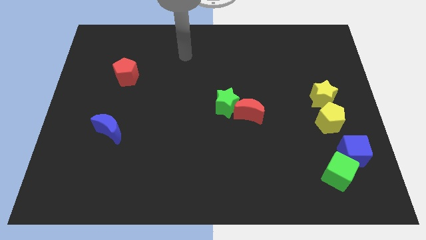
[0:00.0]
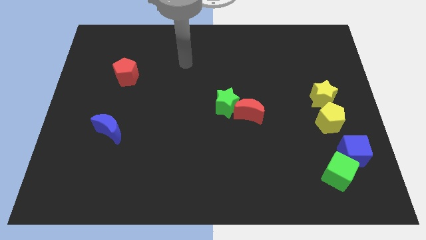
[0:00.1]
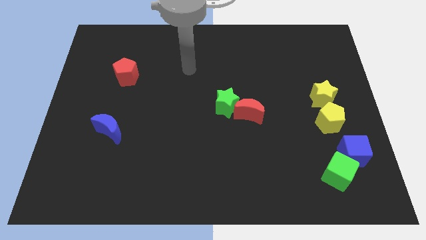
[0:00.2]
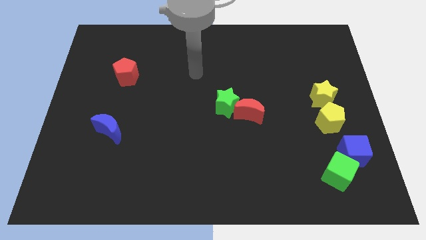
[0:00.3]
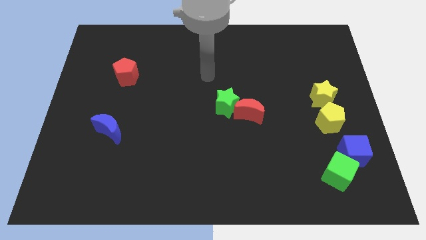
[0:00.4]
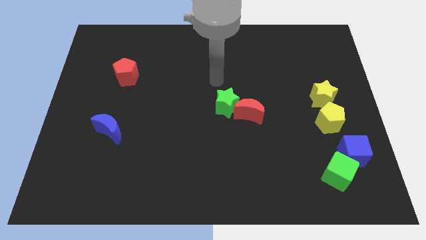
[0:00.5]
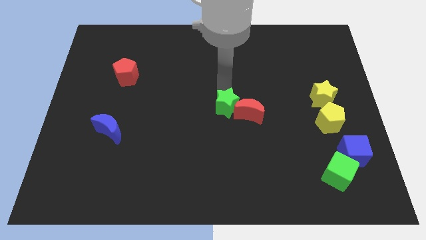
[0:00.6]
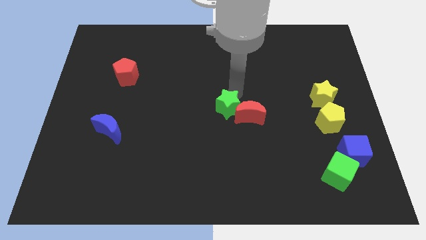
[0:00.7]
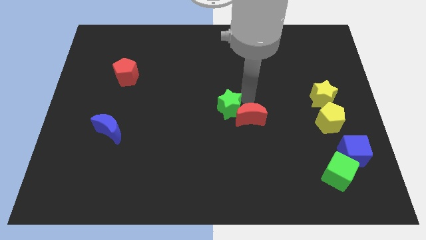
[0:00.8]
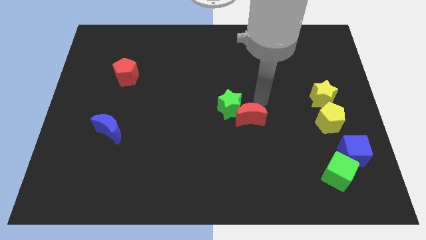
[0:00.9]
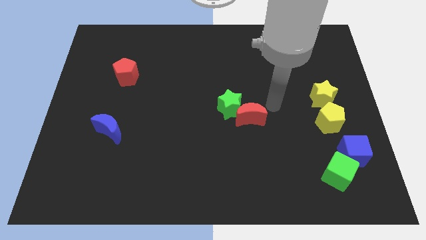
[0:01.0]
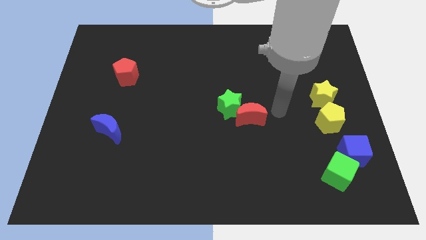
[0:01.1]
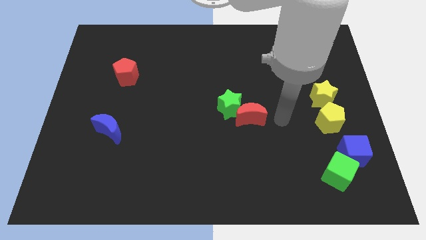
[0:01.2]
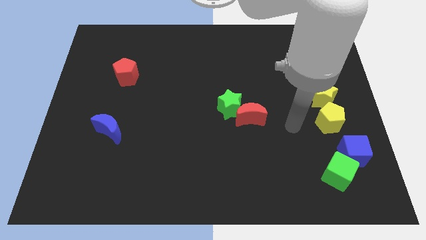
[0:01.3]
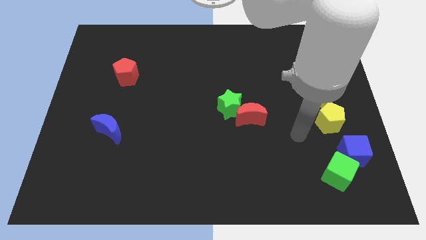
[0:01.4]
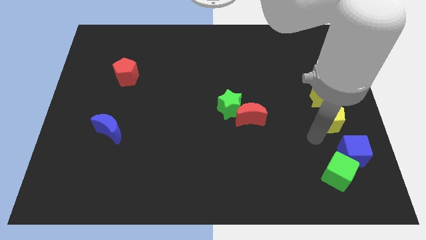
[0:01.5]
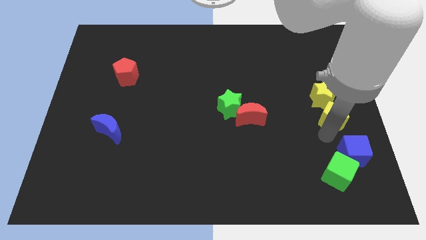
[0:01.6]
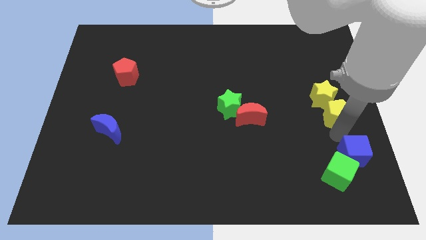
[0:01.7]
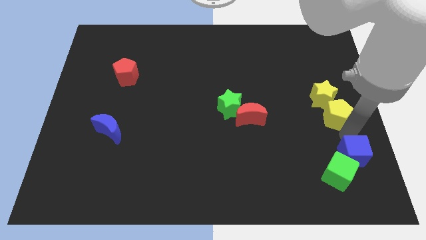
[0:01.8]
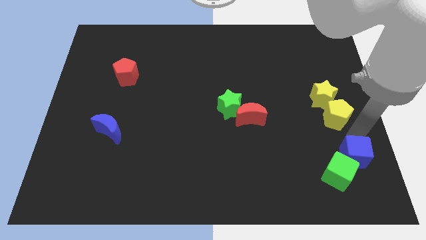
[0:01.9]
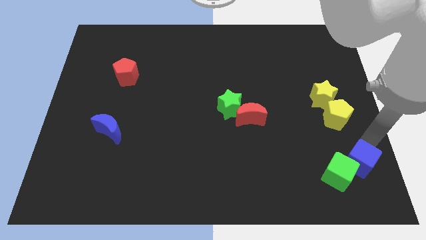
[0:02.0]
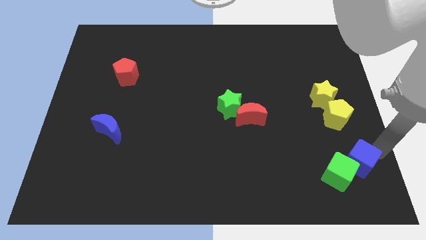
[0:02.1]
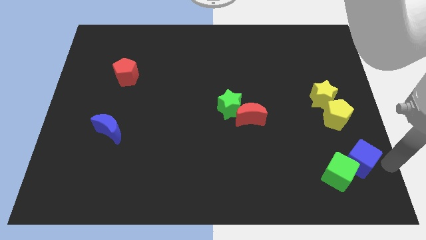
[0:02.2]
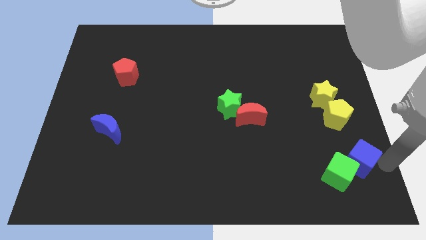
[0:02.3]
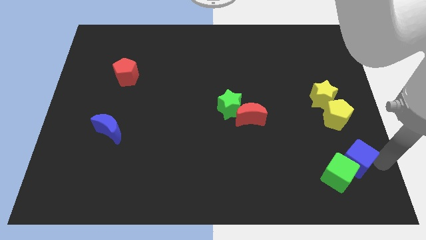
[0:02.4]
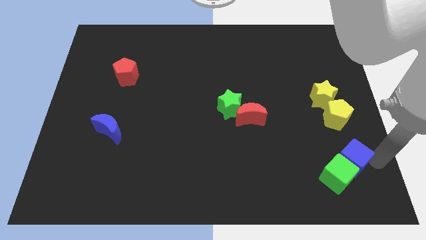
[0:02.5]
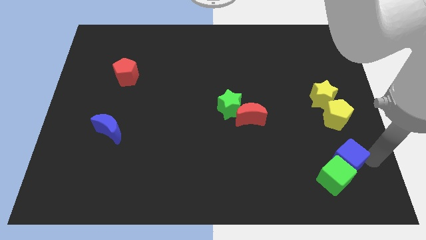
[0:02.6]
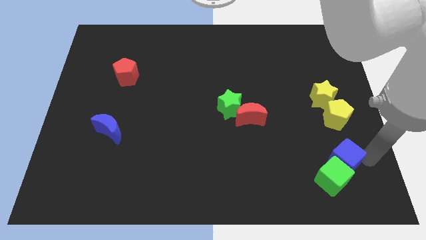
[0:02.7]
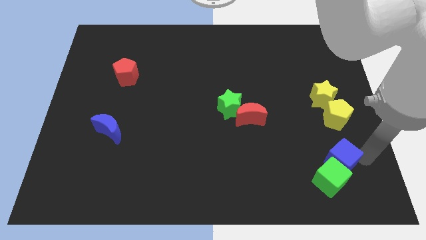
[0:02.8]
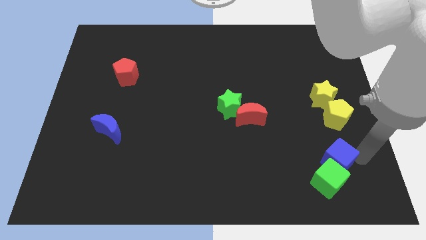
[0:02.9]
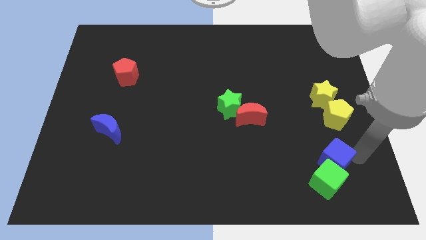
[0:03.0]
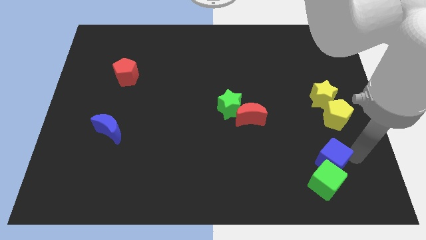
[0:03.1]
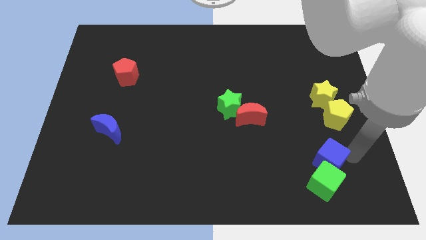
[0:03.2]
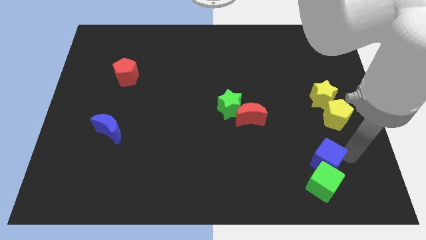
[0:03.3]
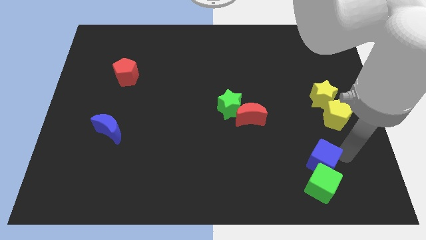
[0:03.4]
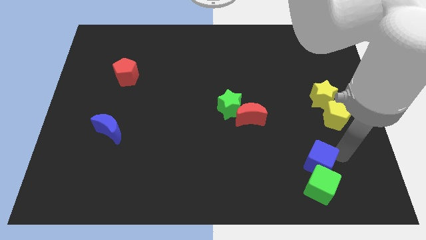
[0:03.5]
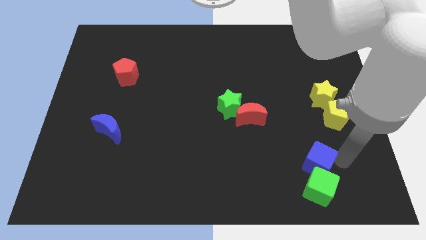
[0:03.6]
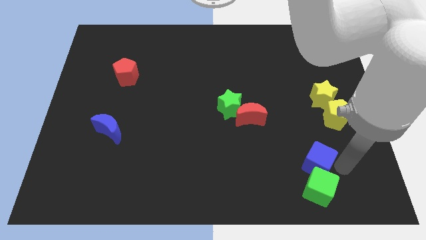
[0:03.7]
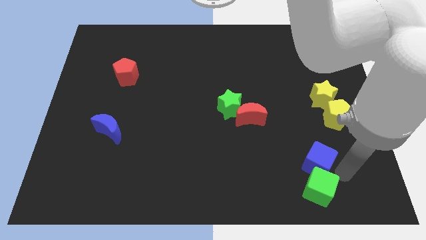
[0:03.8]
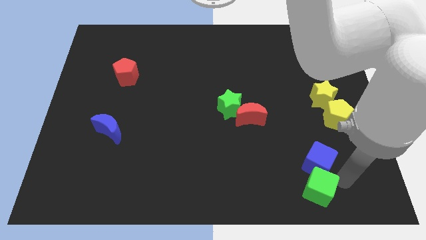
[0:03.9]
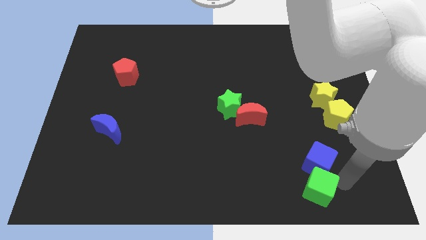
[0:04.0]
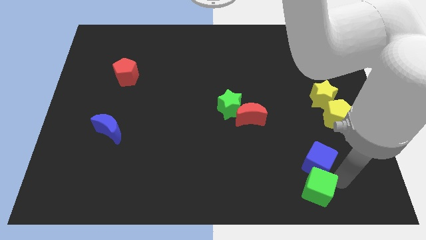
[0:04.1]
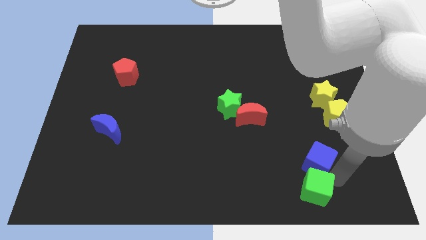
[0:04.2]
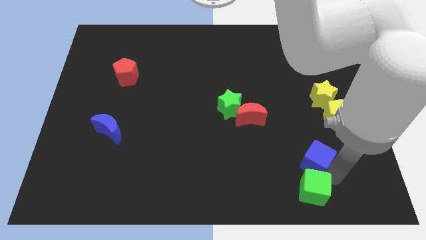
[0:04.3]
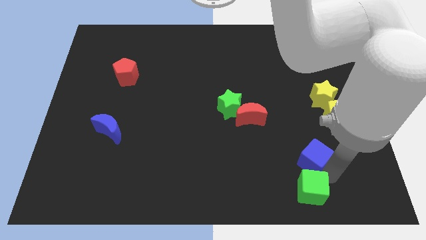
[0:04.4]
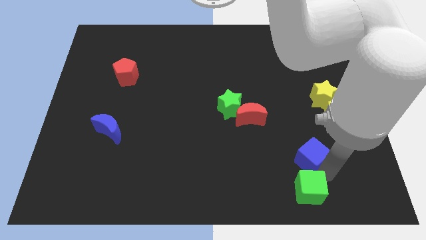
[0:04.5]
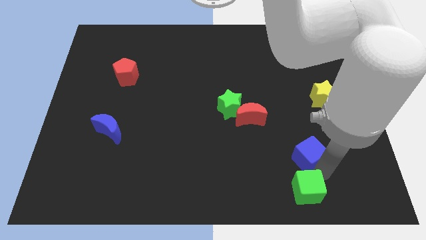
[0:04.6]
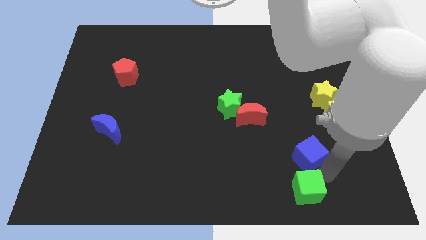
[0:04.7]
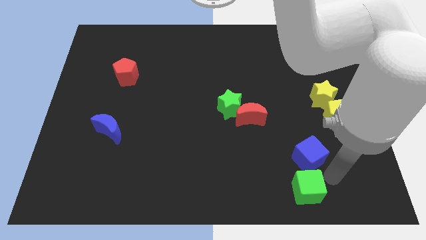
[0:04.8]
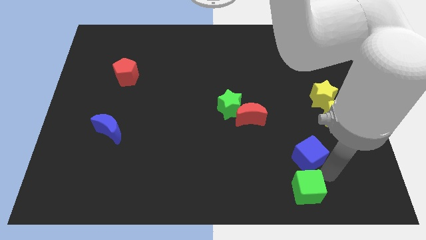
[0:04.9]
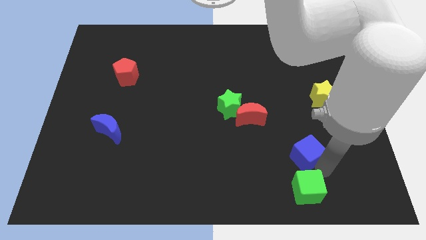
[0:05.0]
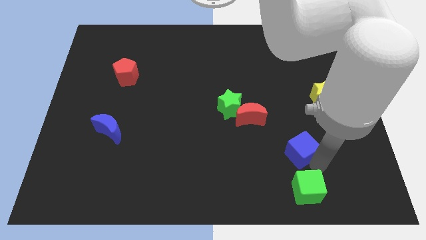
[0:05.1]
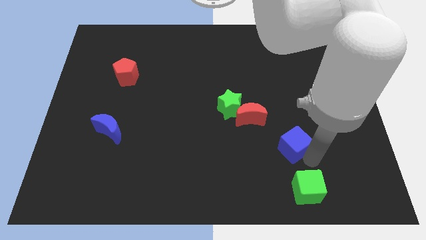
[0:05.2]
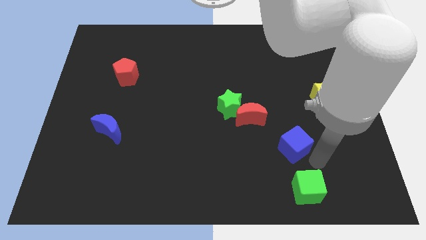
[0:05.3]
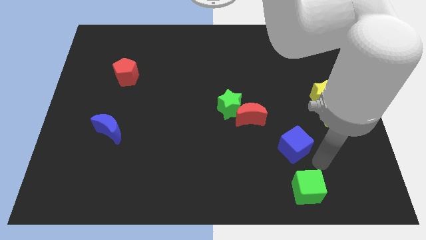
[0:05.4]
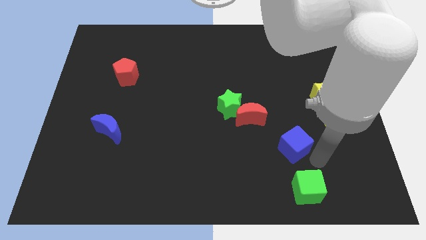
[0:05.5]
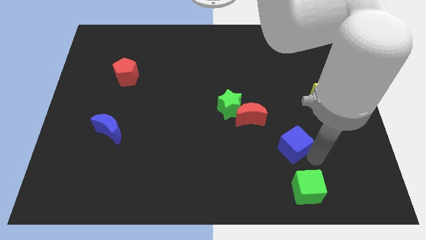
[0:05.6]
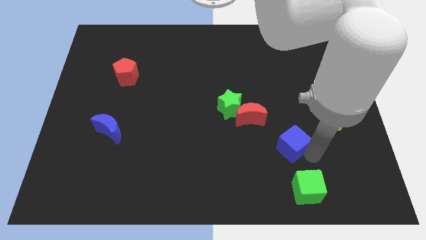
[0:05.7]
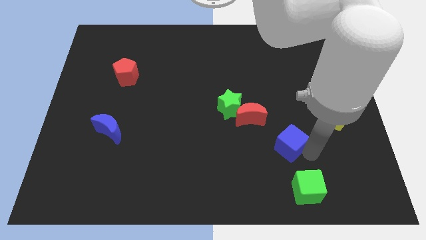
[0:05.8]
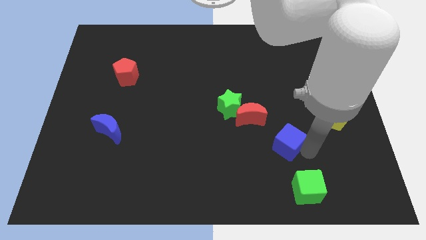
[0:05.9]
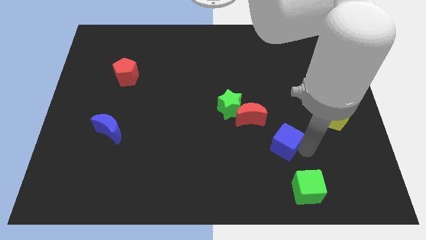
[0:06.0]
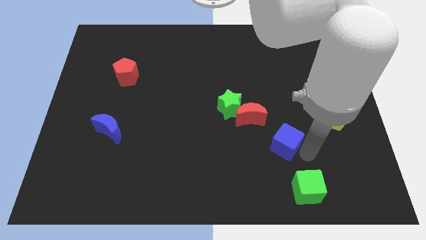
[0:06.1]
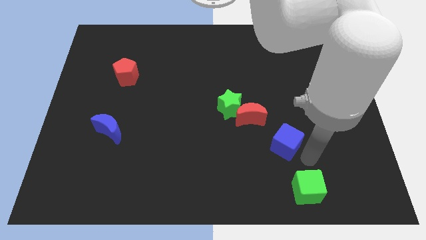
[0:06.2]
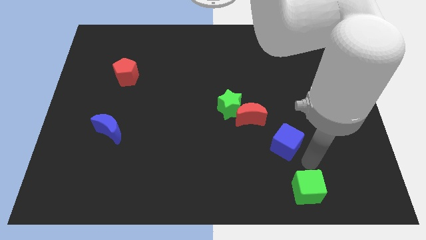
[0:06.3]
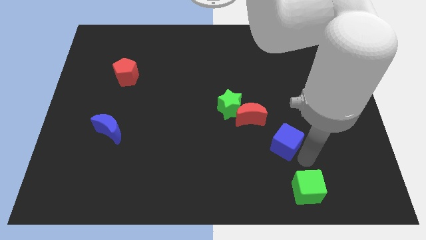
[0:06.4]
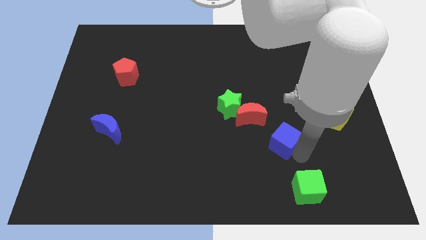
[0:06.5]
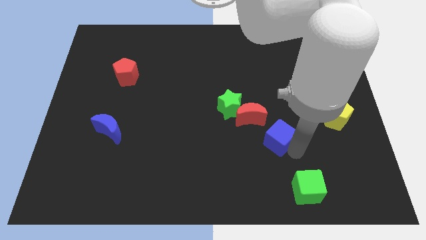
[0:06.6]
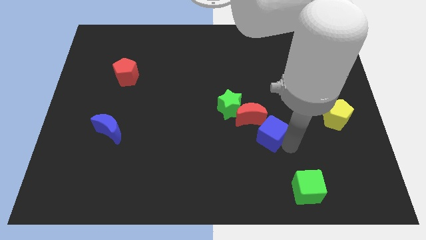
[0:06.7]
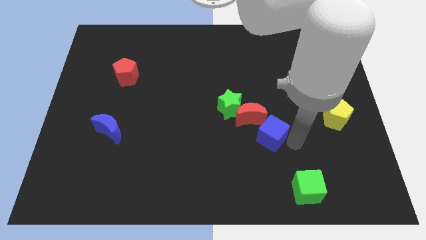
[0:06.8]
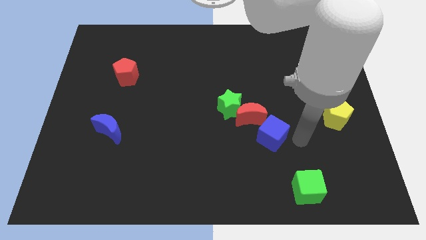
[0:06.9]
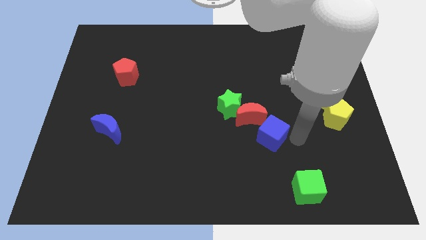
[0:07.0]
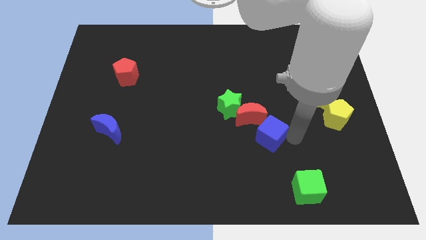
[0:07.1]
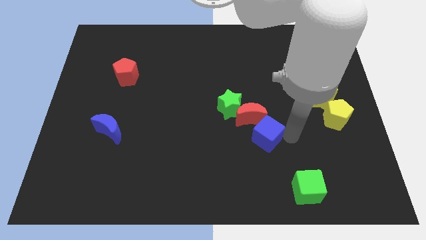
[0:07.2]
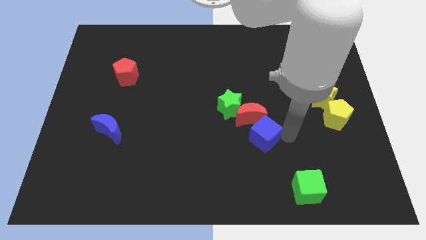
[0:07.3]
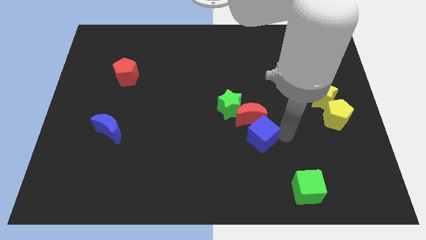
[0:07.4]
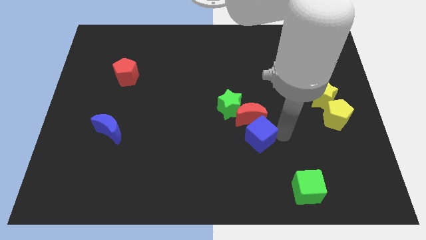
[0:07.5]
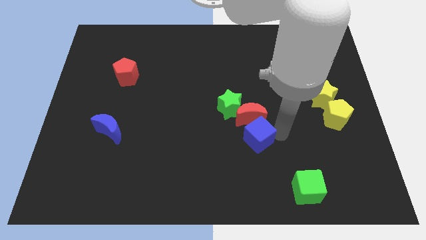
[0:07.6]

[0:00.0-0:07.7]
move the blue cube to the bottom left of the red moon

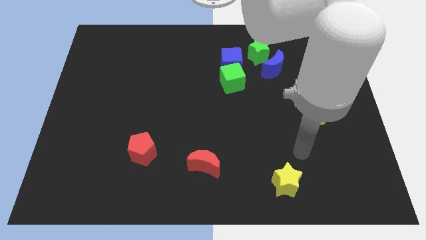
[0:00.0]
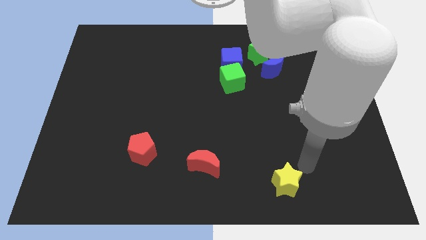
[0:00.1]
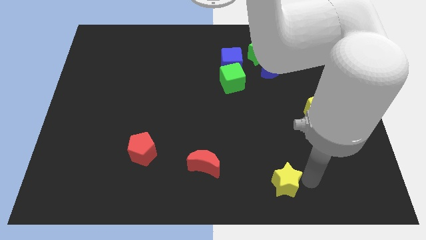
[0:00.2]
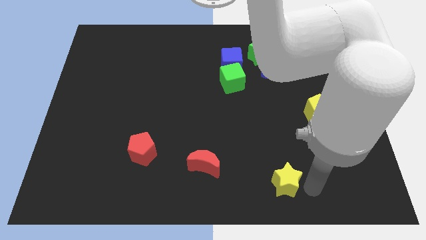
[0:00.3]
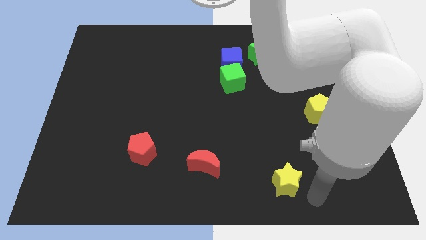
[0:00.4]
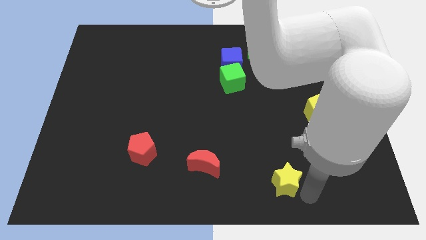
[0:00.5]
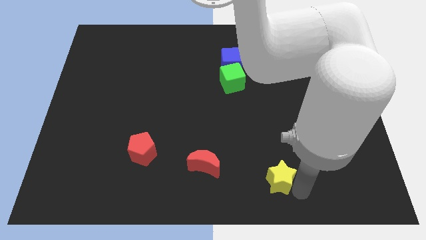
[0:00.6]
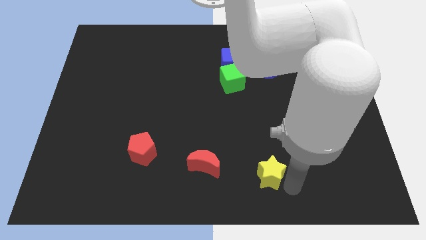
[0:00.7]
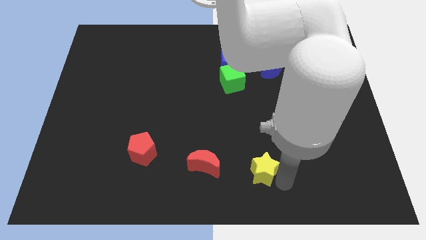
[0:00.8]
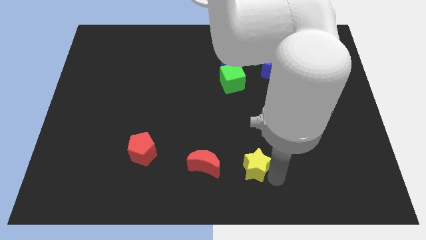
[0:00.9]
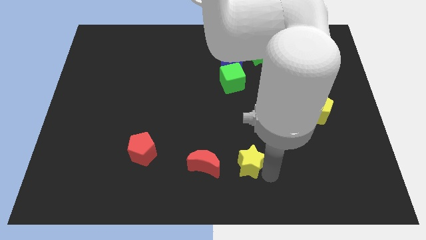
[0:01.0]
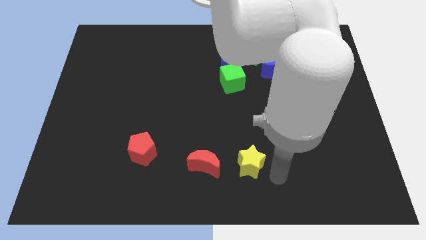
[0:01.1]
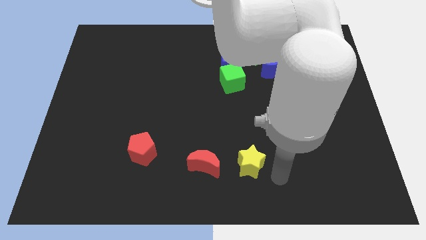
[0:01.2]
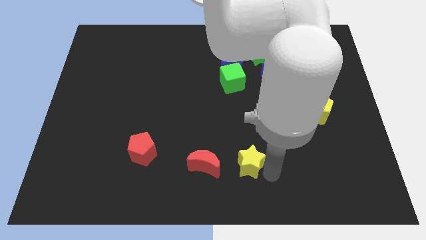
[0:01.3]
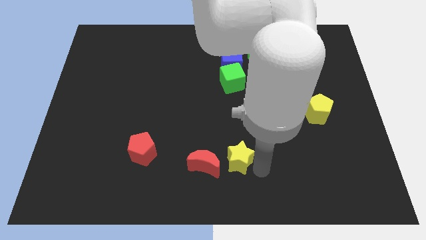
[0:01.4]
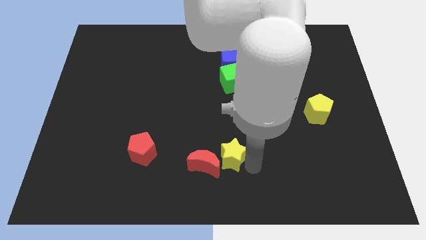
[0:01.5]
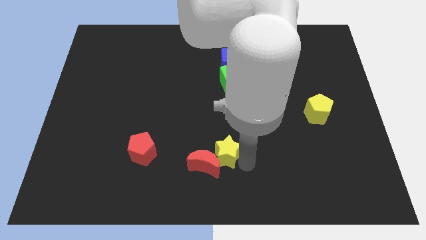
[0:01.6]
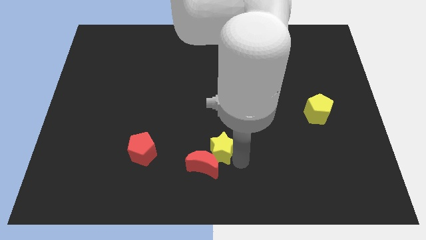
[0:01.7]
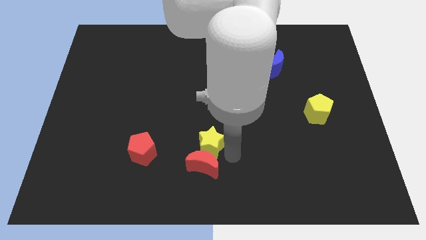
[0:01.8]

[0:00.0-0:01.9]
move the yellow star diagonally up and to the left of the red moon
